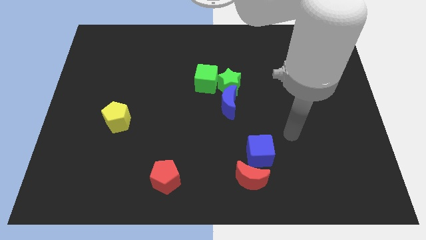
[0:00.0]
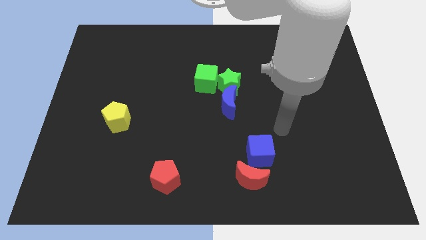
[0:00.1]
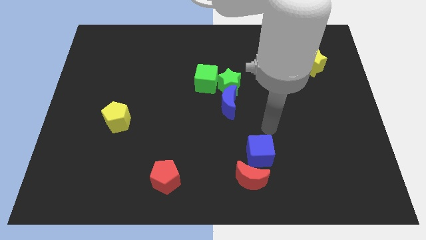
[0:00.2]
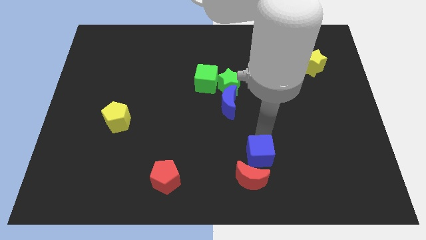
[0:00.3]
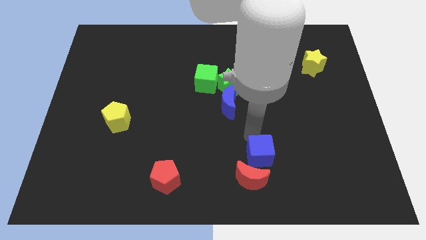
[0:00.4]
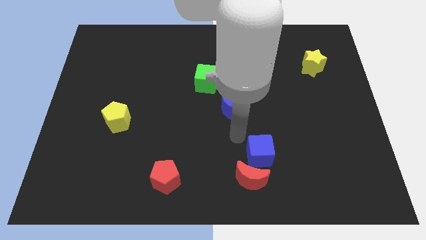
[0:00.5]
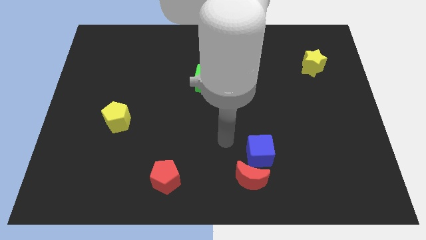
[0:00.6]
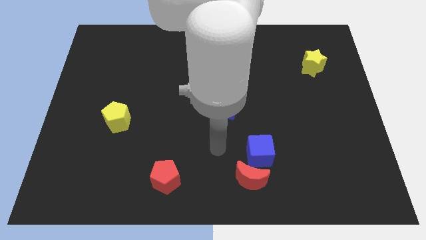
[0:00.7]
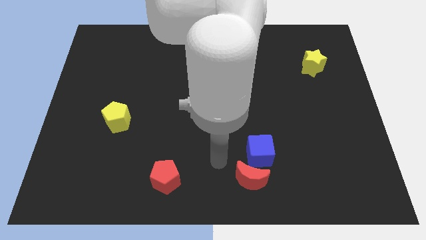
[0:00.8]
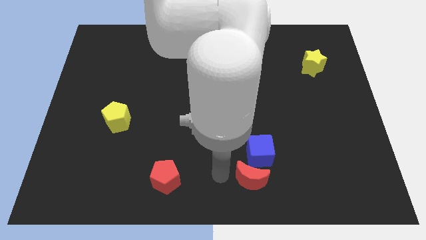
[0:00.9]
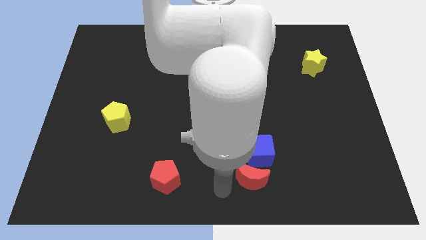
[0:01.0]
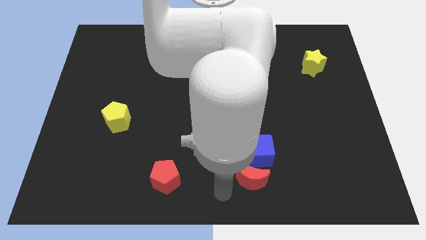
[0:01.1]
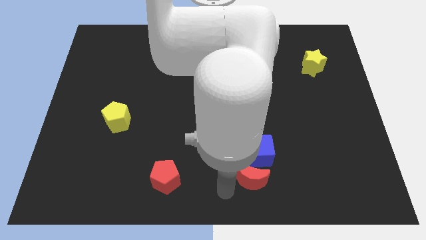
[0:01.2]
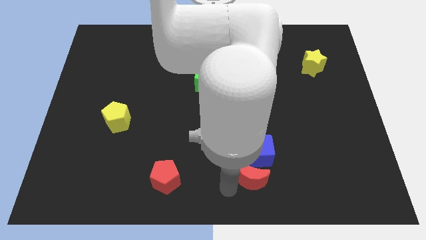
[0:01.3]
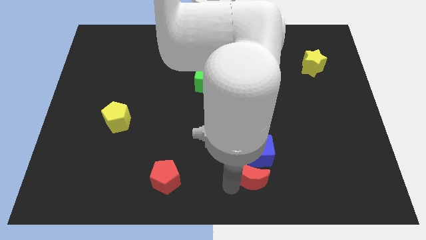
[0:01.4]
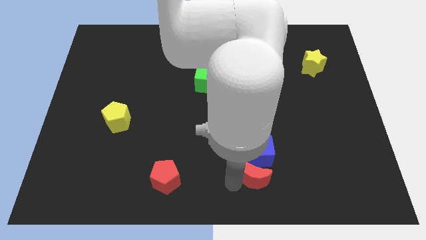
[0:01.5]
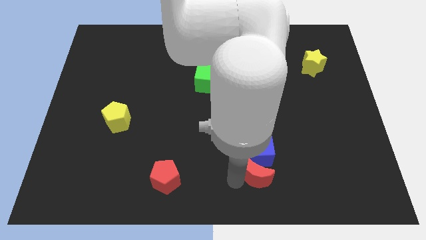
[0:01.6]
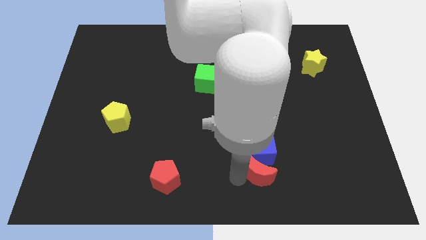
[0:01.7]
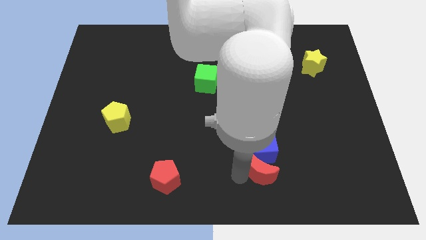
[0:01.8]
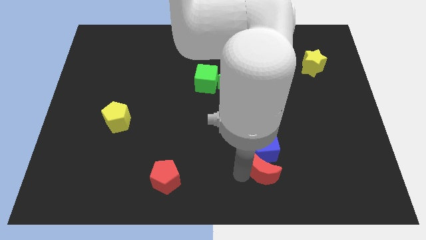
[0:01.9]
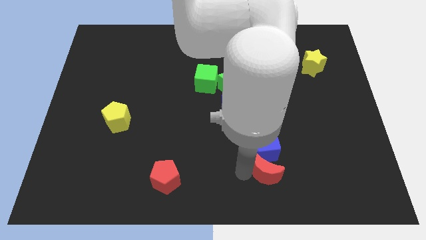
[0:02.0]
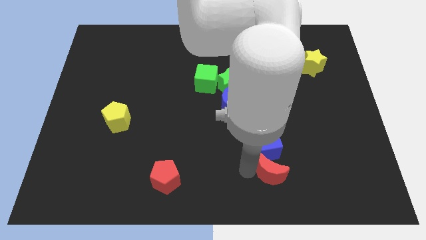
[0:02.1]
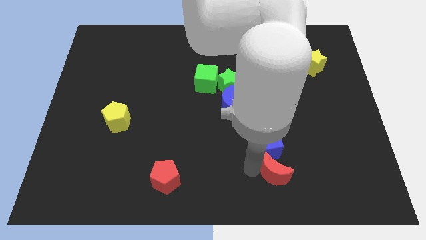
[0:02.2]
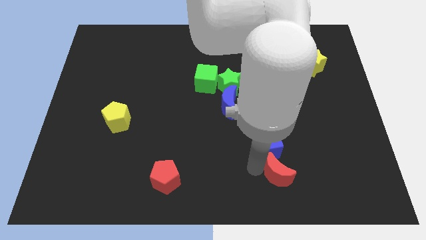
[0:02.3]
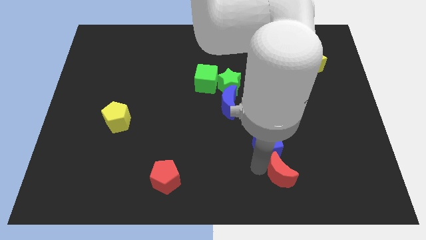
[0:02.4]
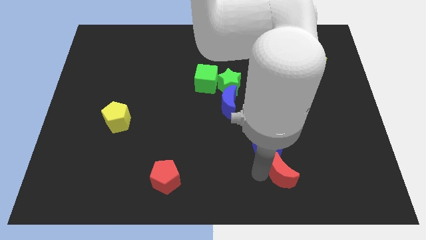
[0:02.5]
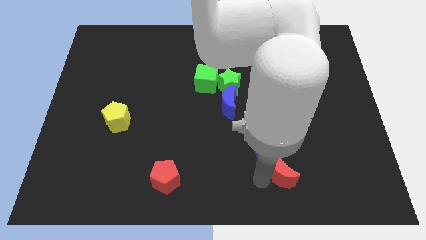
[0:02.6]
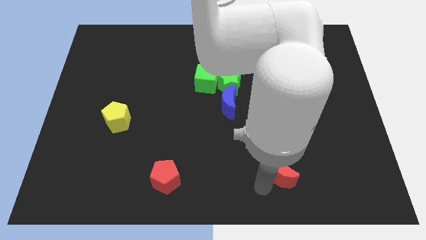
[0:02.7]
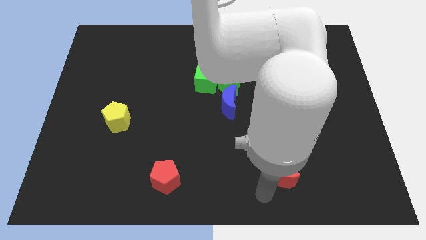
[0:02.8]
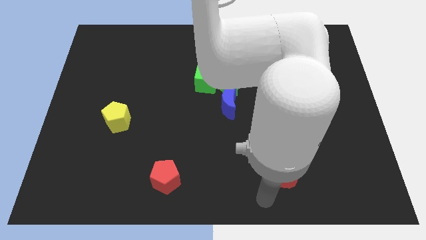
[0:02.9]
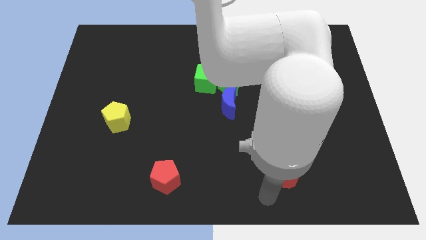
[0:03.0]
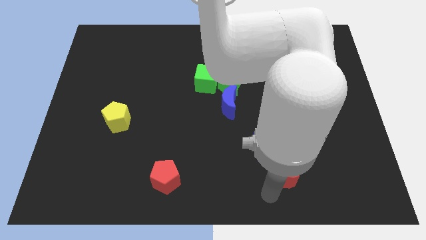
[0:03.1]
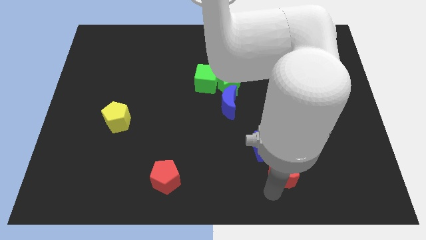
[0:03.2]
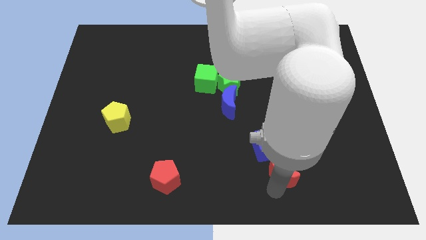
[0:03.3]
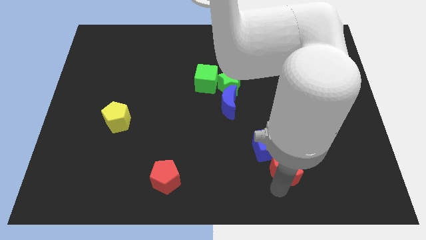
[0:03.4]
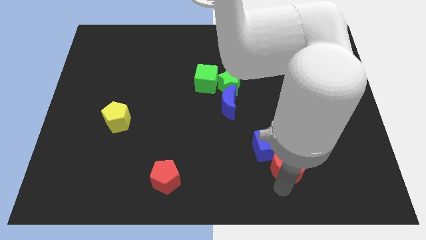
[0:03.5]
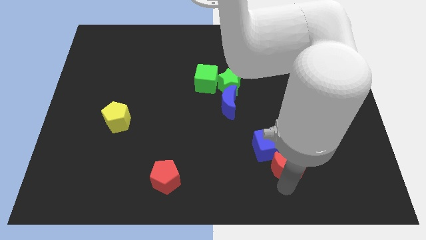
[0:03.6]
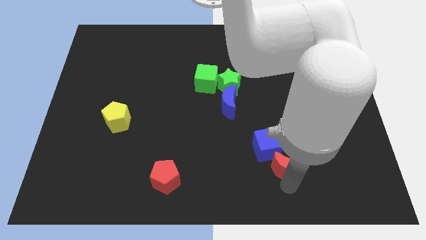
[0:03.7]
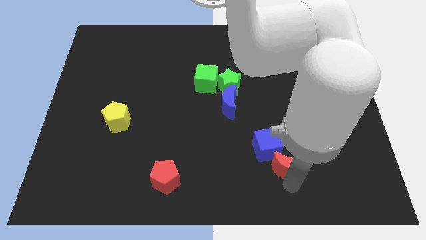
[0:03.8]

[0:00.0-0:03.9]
move the red moon a bit up and to the right

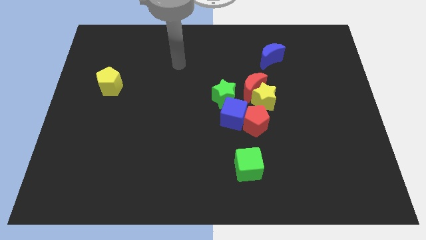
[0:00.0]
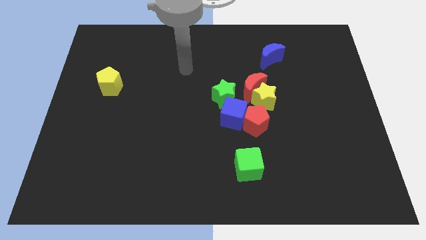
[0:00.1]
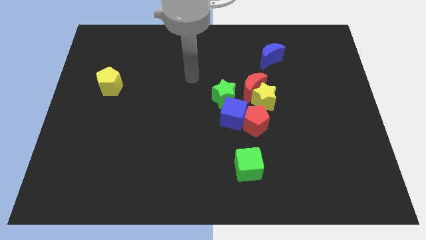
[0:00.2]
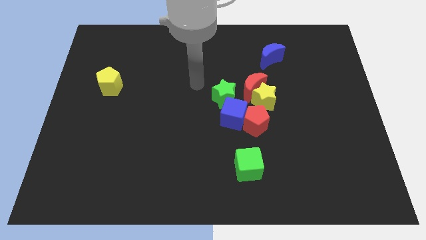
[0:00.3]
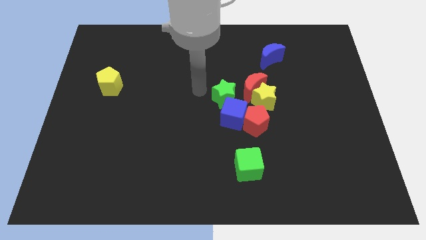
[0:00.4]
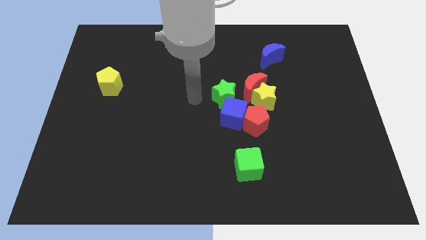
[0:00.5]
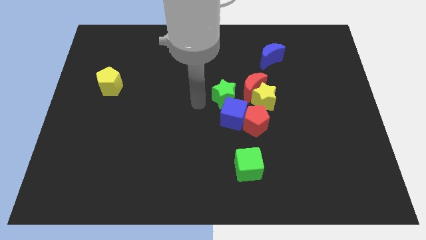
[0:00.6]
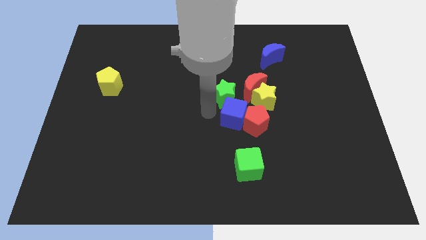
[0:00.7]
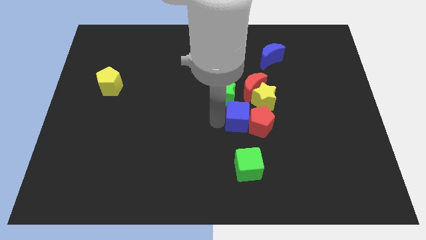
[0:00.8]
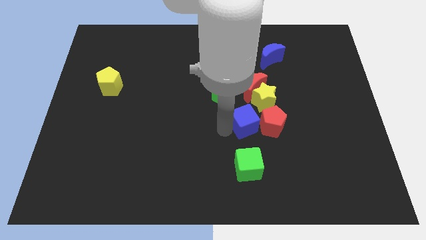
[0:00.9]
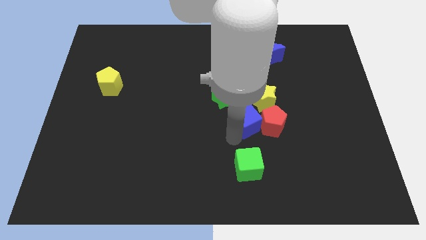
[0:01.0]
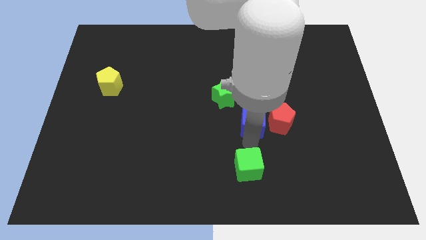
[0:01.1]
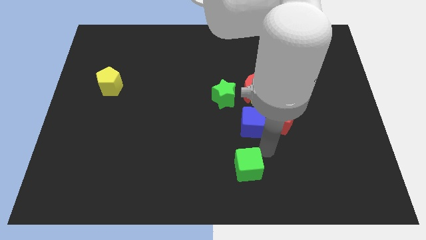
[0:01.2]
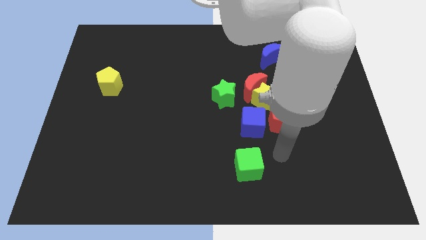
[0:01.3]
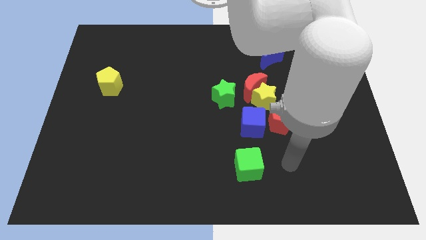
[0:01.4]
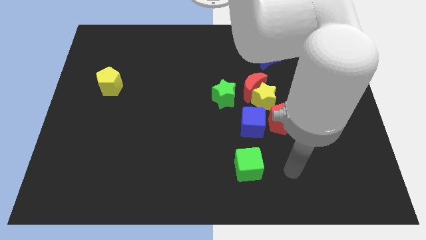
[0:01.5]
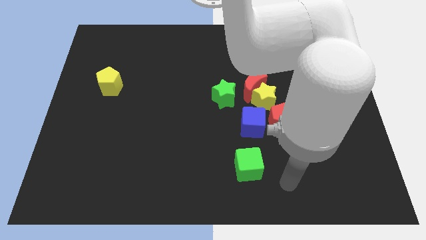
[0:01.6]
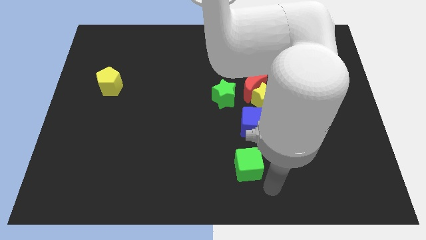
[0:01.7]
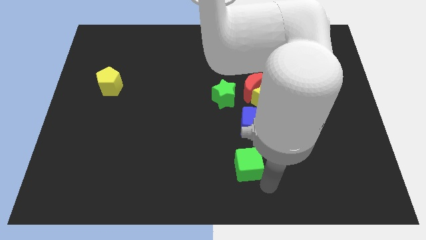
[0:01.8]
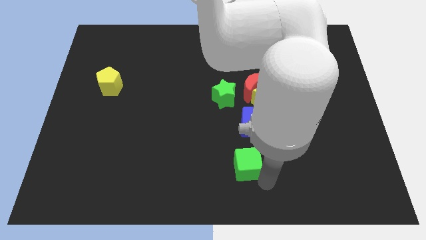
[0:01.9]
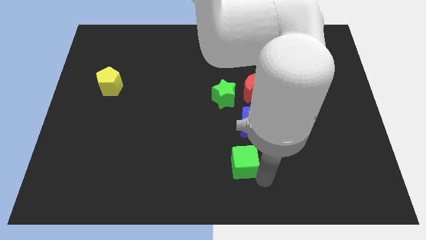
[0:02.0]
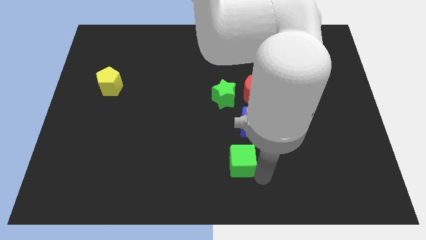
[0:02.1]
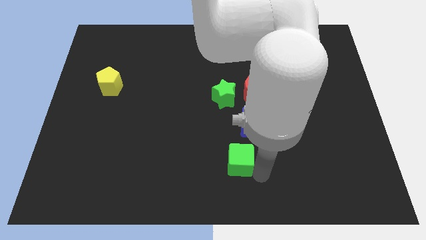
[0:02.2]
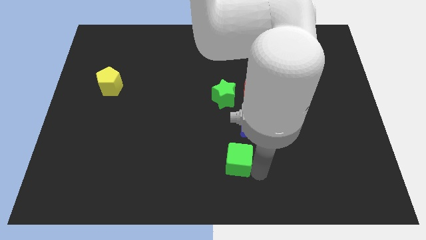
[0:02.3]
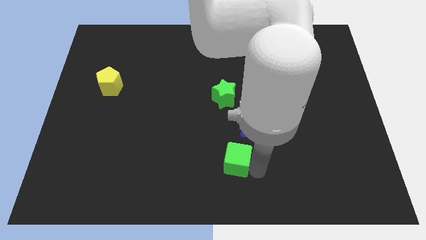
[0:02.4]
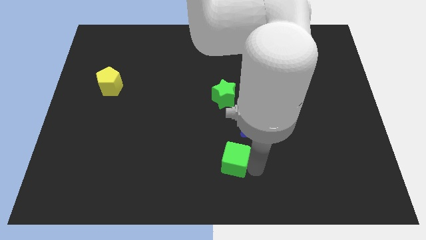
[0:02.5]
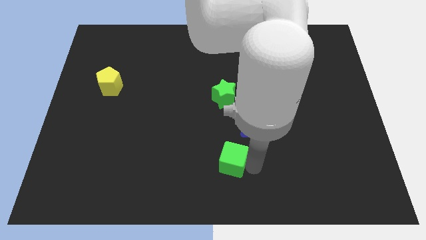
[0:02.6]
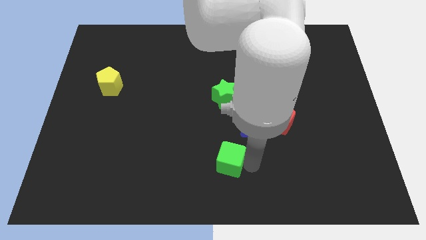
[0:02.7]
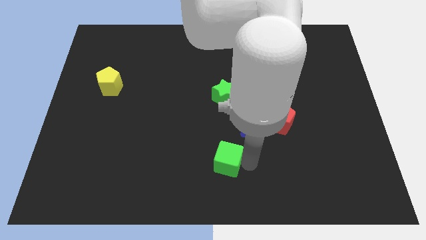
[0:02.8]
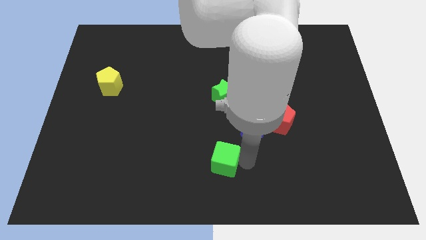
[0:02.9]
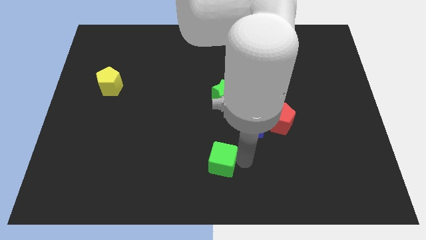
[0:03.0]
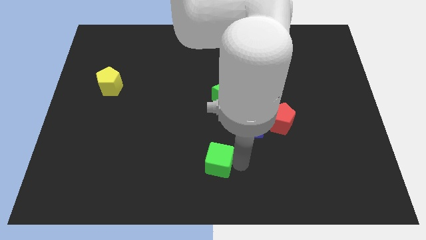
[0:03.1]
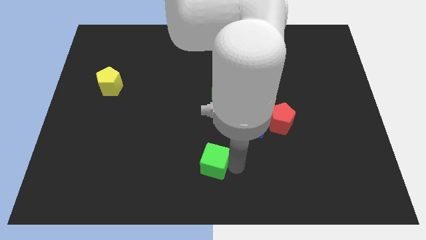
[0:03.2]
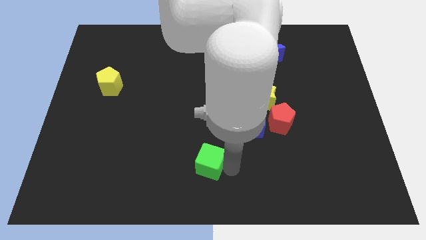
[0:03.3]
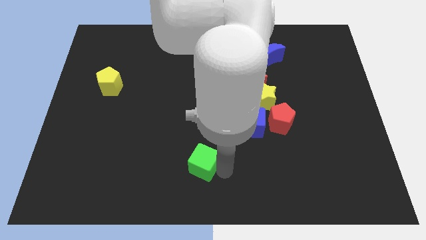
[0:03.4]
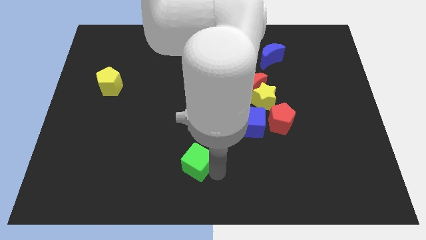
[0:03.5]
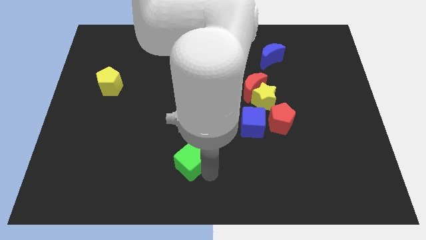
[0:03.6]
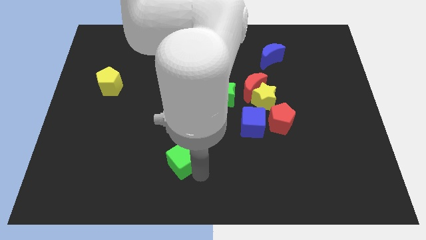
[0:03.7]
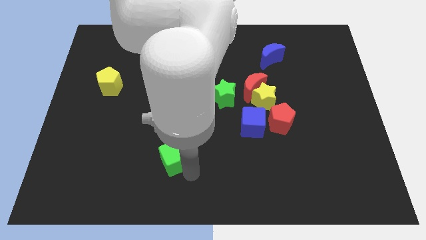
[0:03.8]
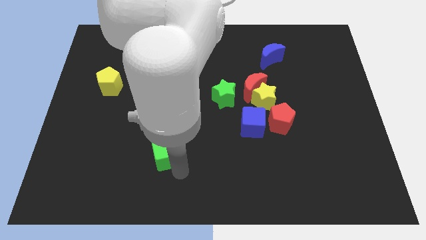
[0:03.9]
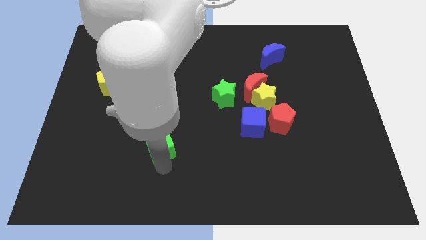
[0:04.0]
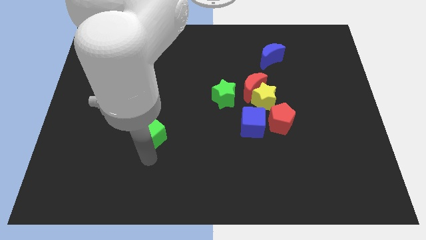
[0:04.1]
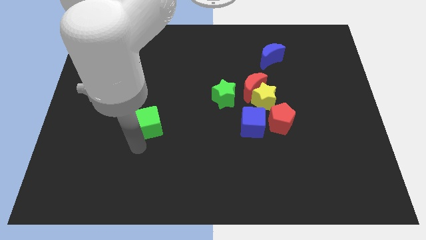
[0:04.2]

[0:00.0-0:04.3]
slide the green cube diagonally upwards and left

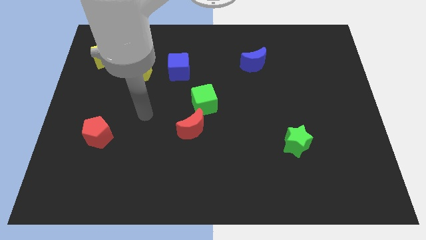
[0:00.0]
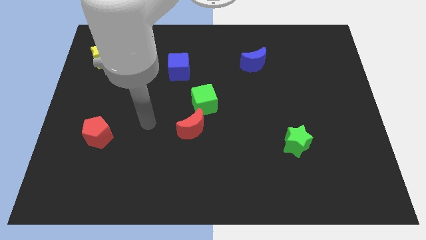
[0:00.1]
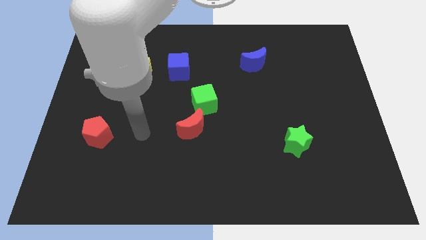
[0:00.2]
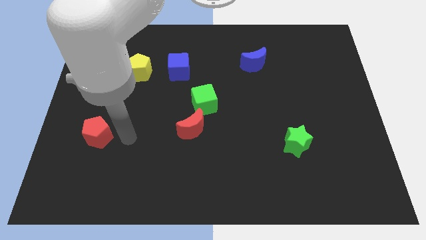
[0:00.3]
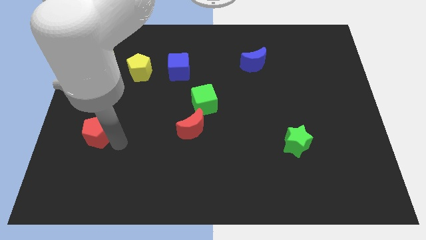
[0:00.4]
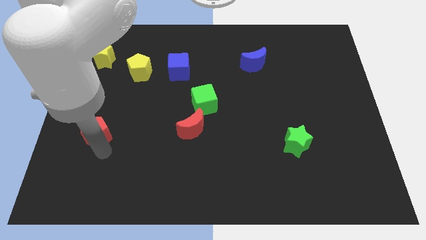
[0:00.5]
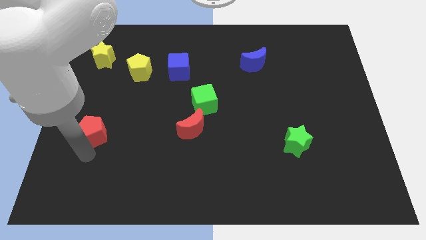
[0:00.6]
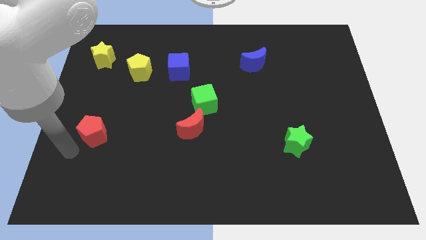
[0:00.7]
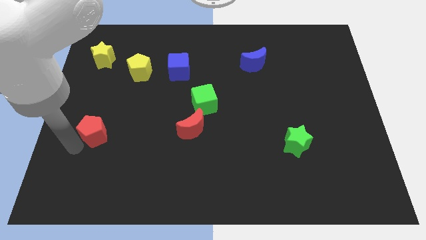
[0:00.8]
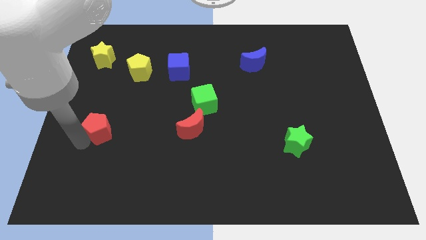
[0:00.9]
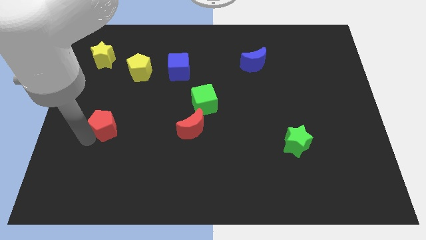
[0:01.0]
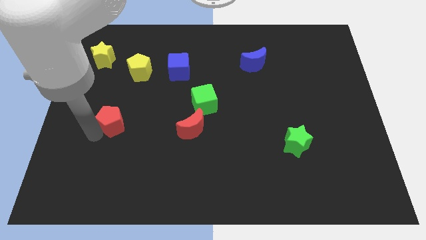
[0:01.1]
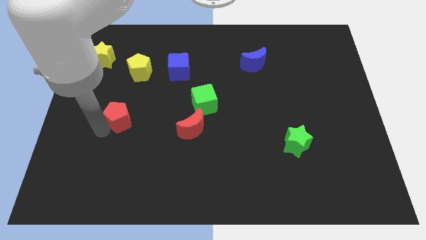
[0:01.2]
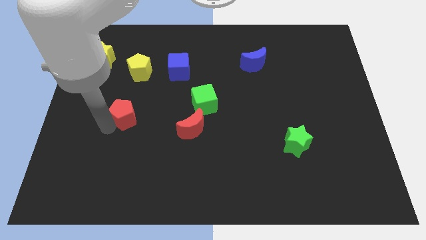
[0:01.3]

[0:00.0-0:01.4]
slightly move the red pentagon upwards and to the right diagonally
